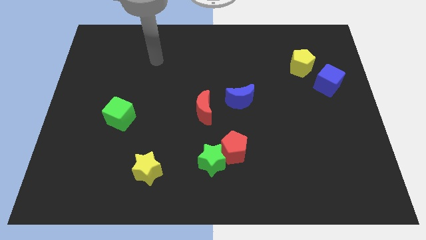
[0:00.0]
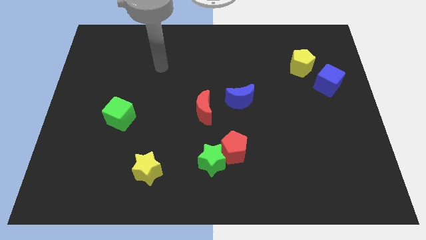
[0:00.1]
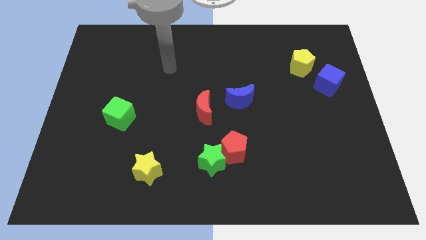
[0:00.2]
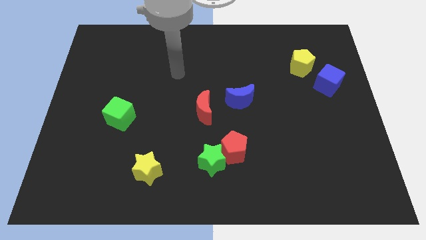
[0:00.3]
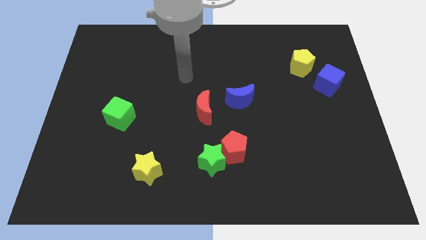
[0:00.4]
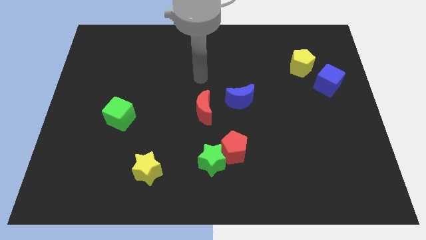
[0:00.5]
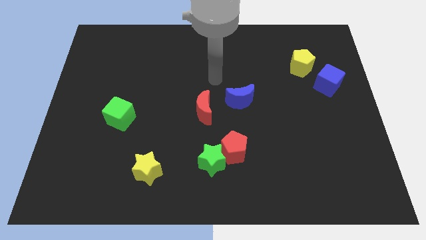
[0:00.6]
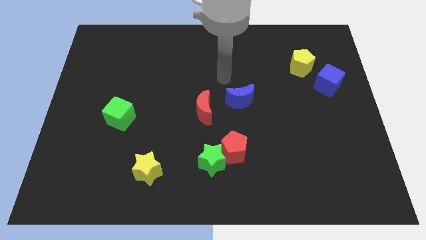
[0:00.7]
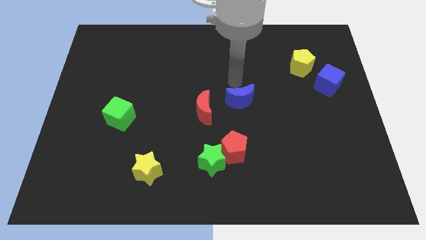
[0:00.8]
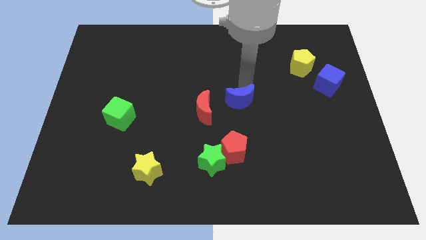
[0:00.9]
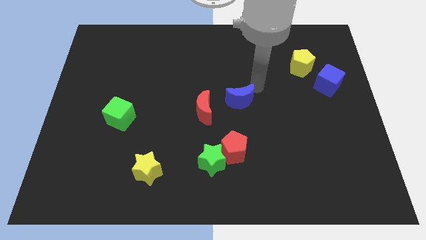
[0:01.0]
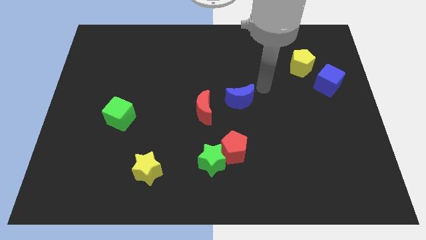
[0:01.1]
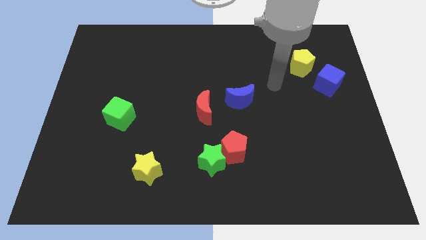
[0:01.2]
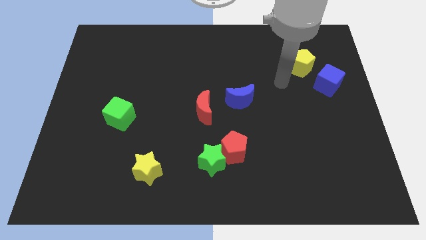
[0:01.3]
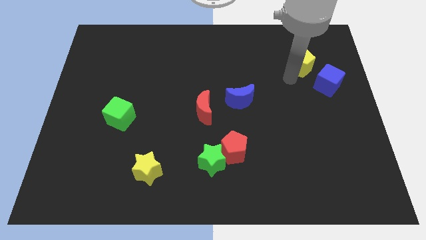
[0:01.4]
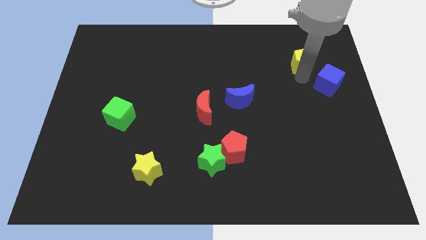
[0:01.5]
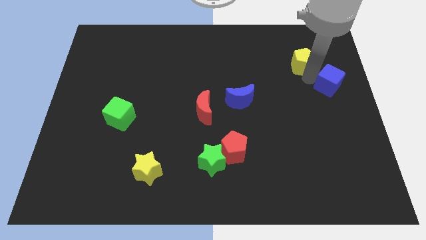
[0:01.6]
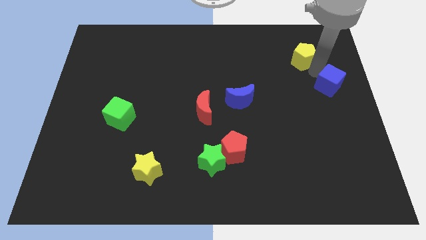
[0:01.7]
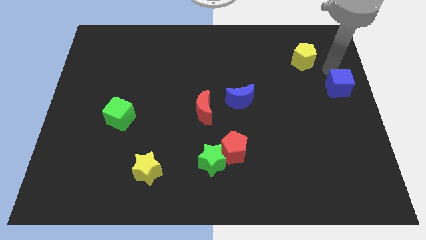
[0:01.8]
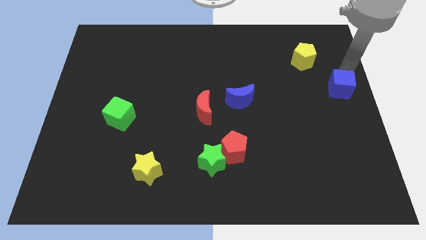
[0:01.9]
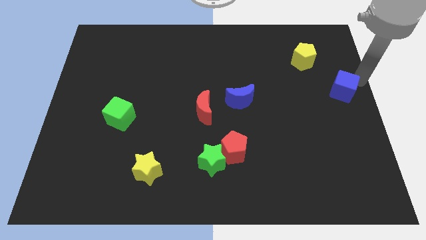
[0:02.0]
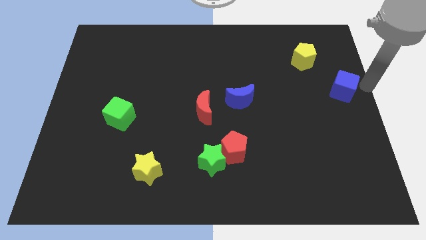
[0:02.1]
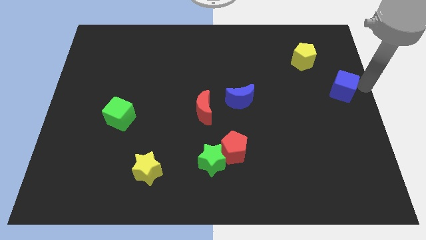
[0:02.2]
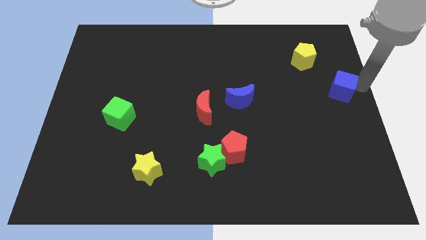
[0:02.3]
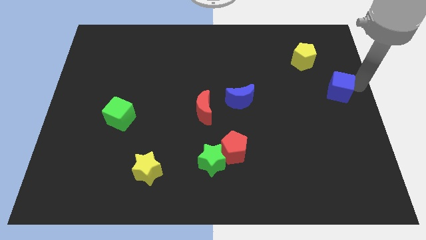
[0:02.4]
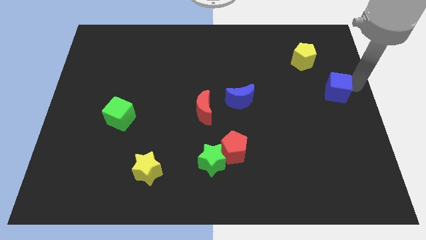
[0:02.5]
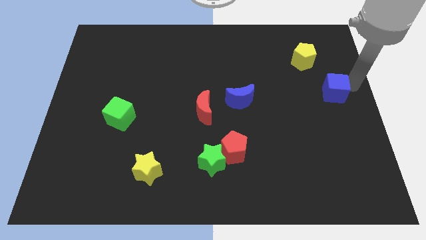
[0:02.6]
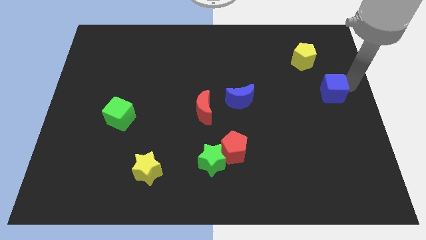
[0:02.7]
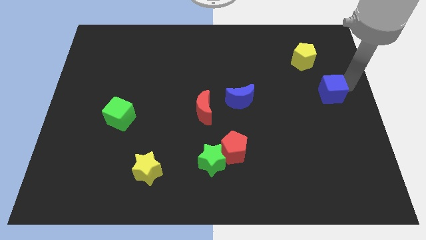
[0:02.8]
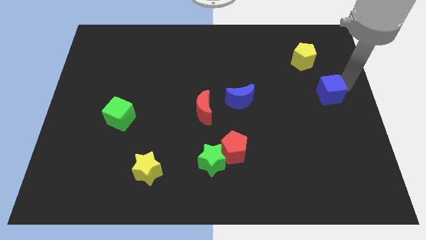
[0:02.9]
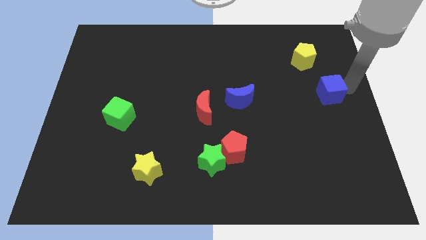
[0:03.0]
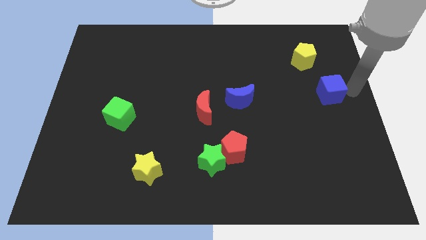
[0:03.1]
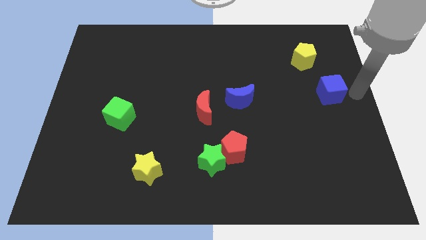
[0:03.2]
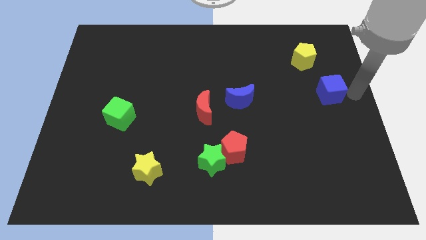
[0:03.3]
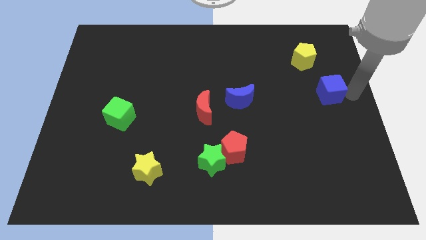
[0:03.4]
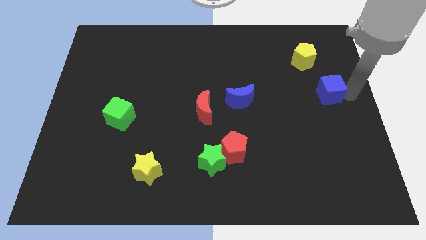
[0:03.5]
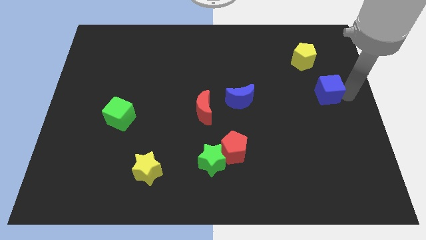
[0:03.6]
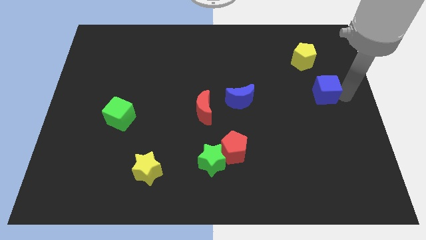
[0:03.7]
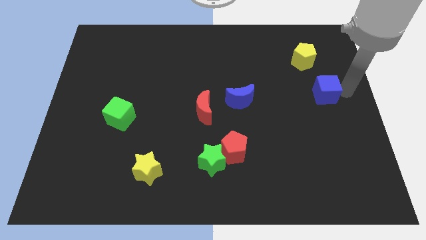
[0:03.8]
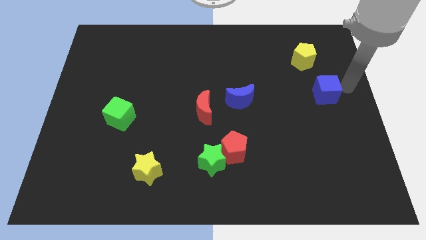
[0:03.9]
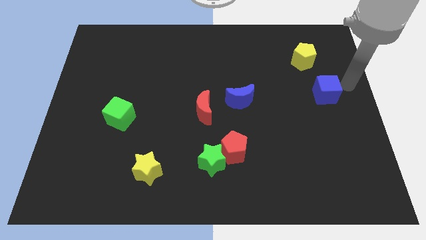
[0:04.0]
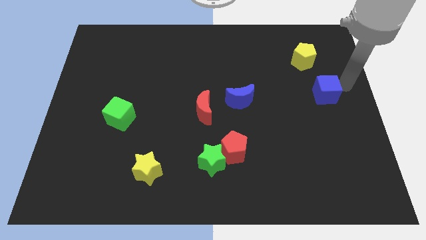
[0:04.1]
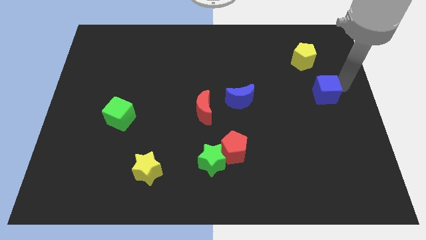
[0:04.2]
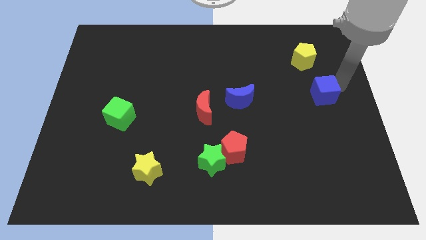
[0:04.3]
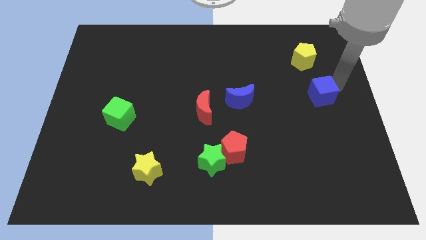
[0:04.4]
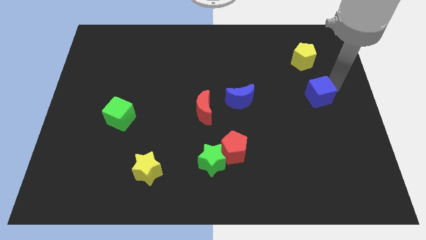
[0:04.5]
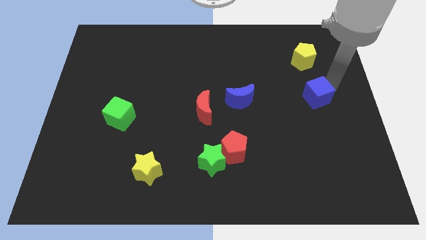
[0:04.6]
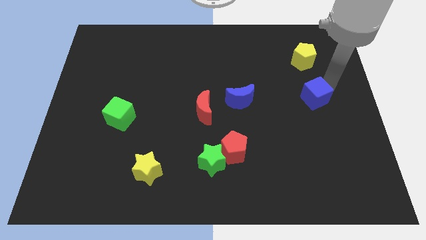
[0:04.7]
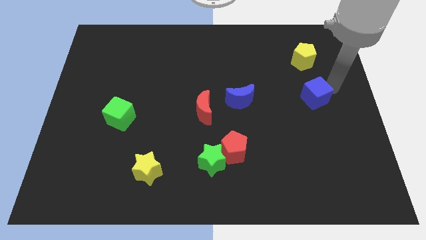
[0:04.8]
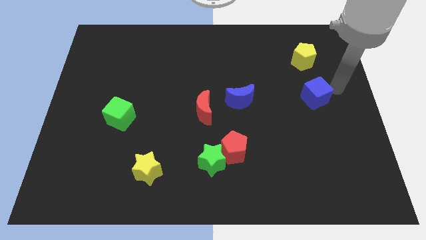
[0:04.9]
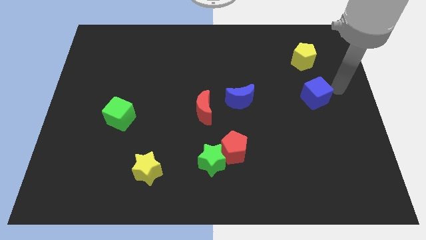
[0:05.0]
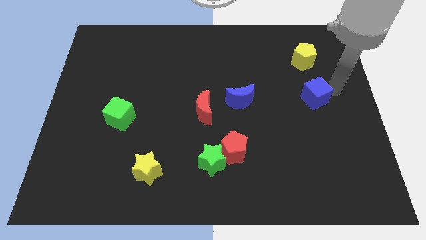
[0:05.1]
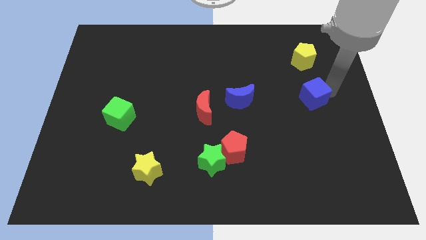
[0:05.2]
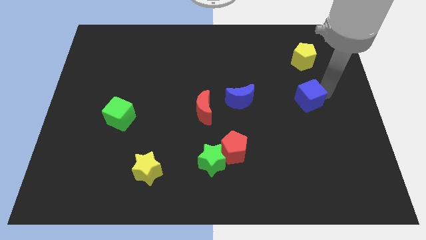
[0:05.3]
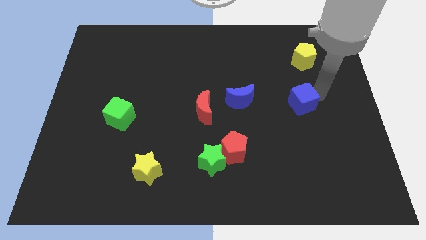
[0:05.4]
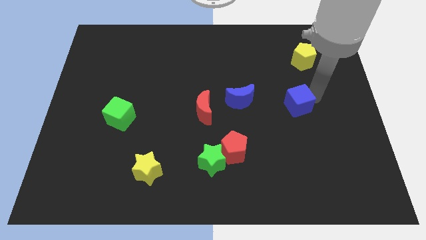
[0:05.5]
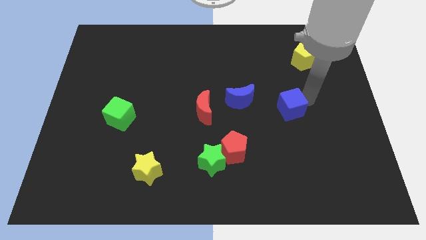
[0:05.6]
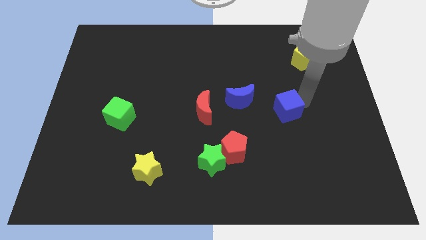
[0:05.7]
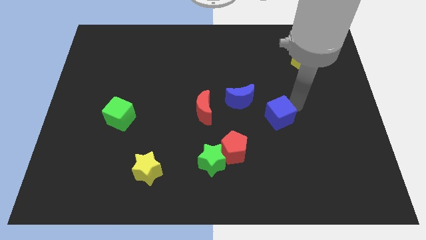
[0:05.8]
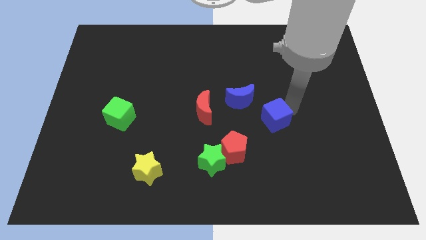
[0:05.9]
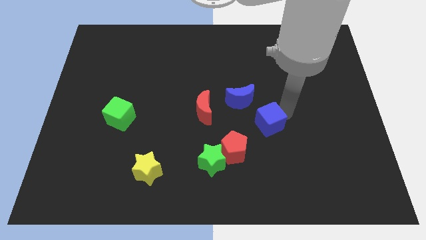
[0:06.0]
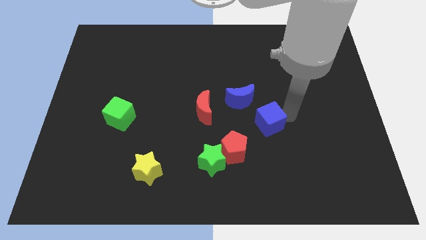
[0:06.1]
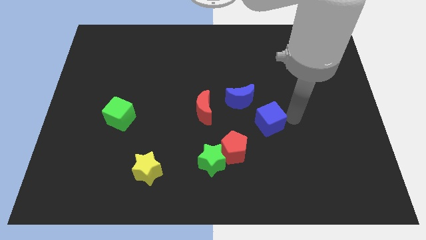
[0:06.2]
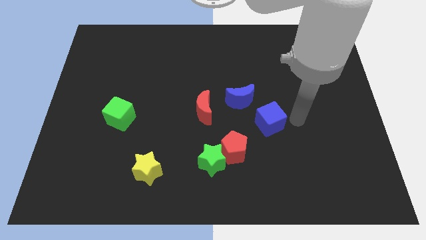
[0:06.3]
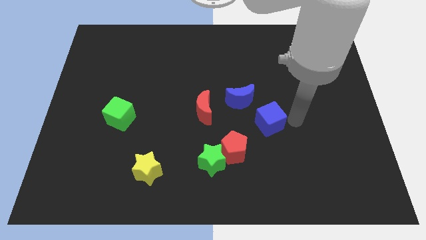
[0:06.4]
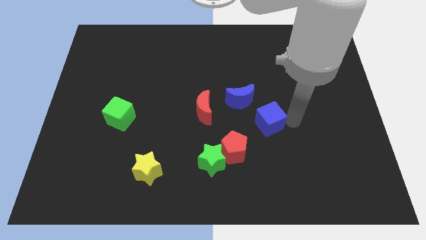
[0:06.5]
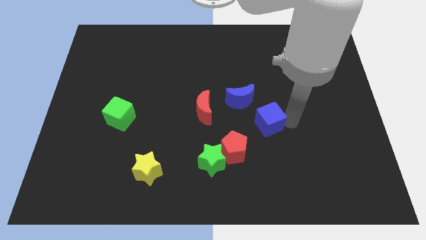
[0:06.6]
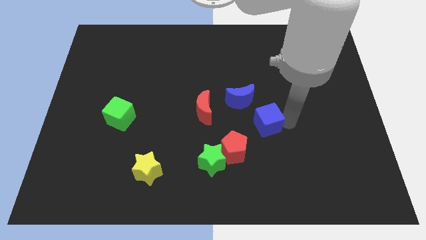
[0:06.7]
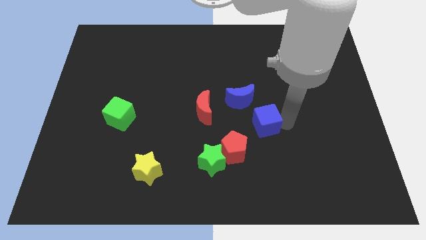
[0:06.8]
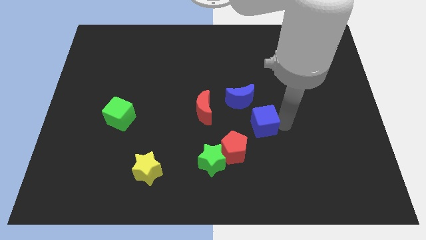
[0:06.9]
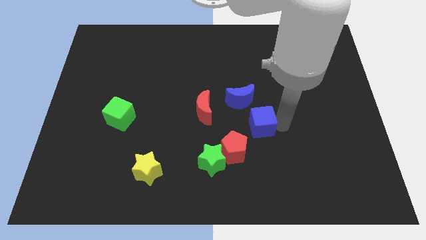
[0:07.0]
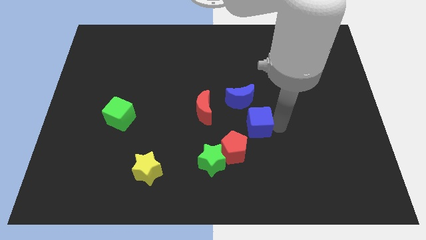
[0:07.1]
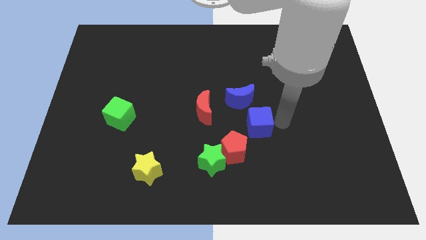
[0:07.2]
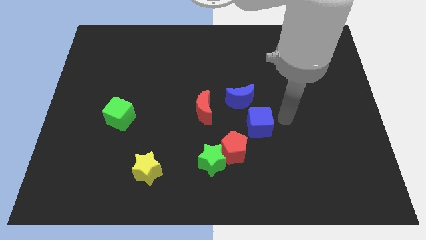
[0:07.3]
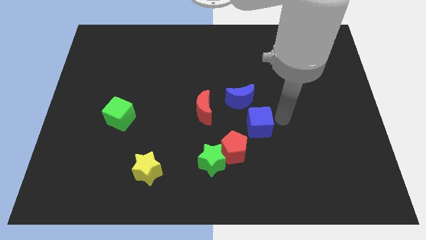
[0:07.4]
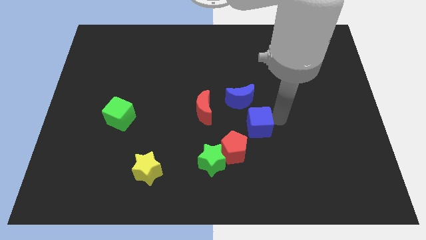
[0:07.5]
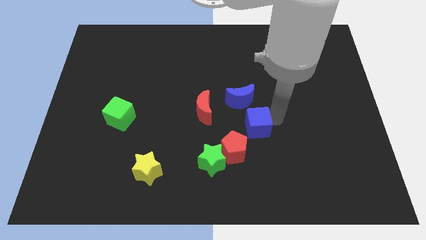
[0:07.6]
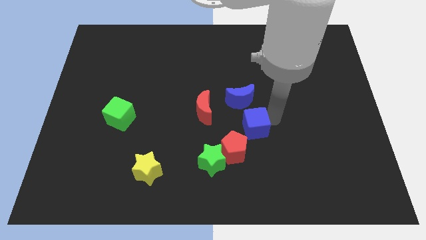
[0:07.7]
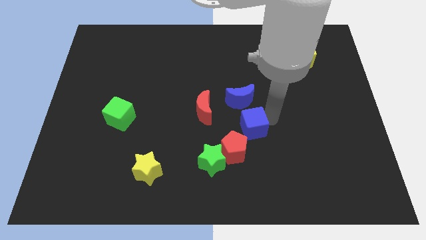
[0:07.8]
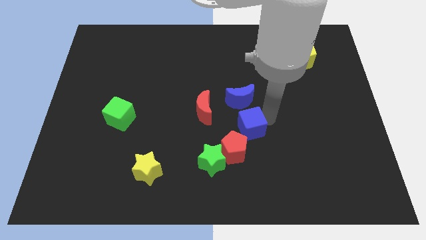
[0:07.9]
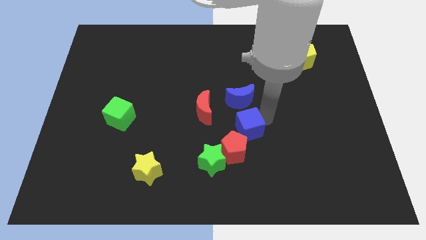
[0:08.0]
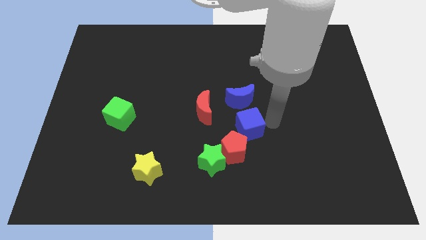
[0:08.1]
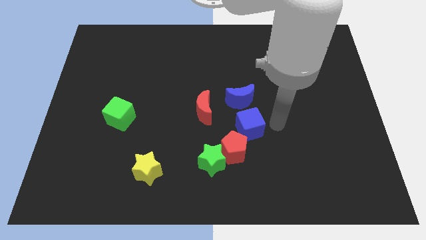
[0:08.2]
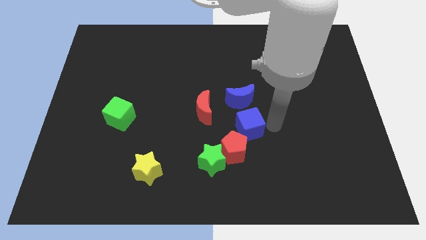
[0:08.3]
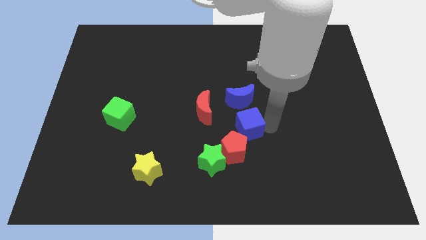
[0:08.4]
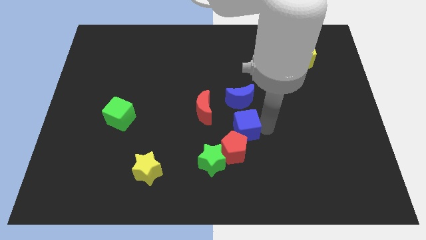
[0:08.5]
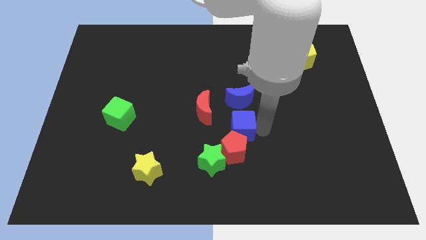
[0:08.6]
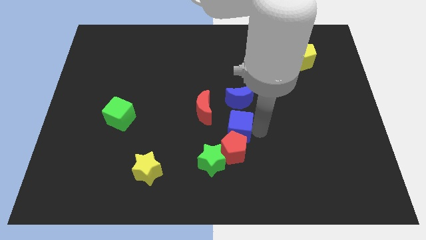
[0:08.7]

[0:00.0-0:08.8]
slide the blue cube diagonally up and to the left of the red pentagon
